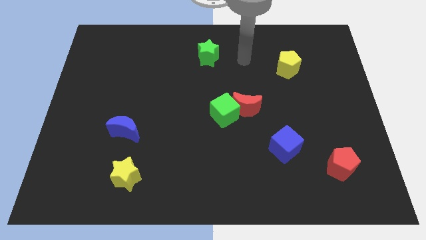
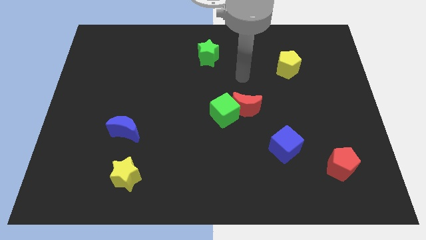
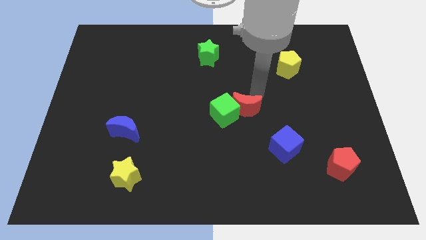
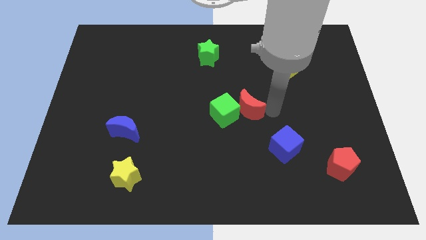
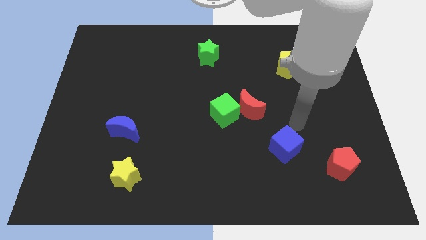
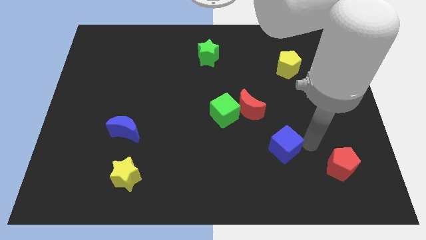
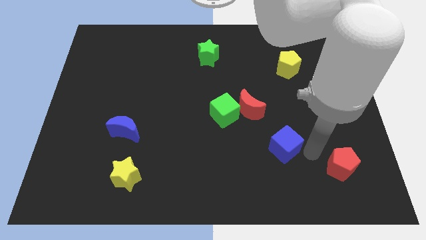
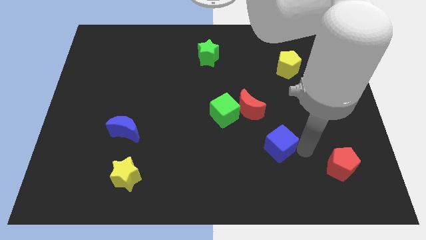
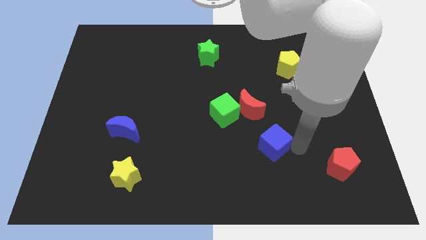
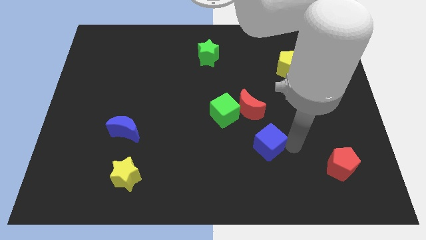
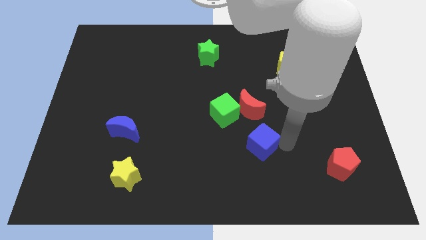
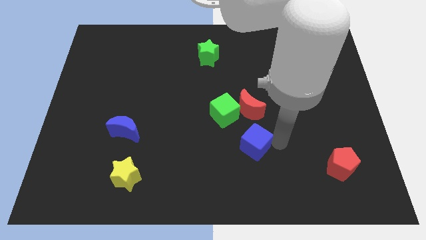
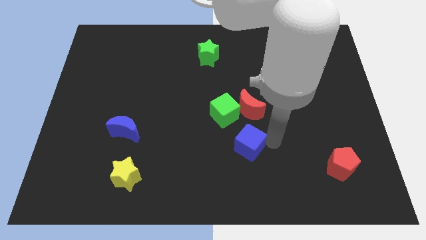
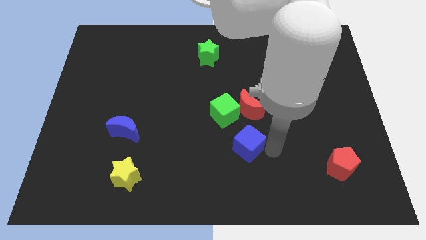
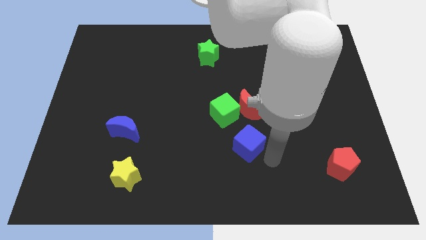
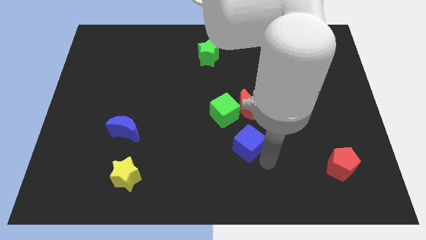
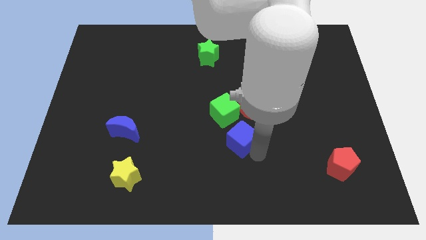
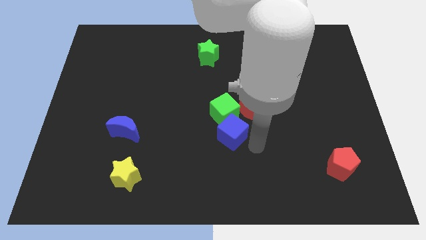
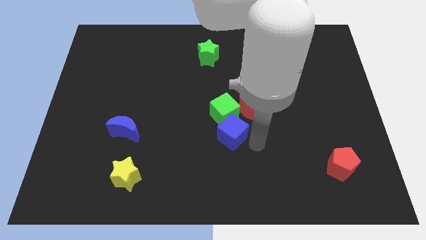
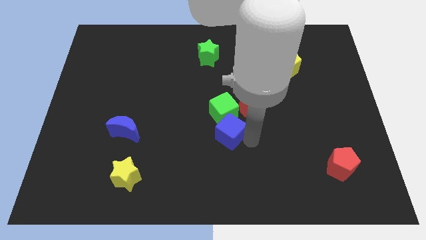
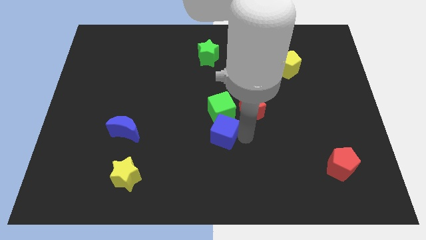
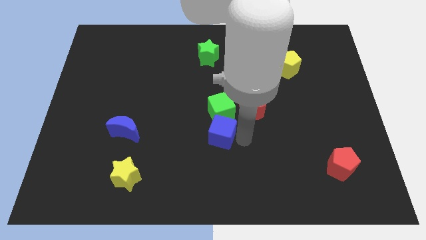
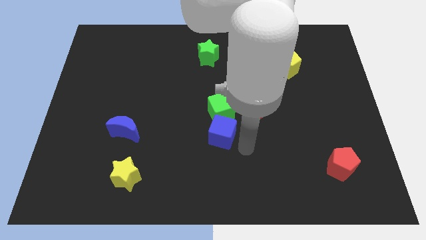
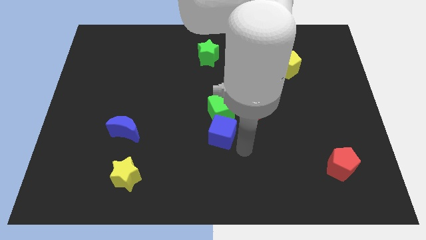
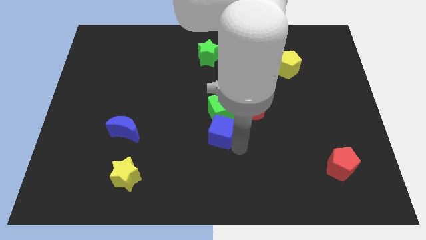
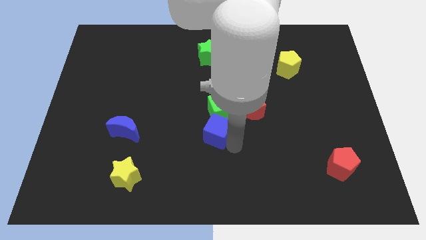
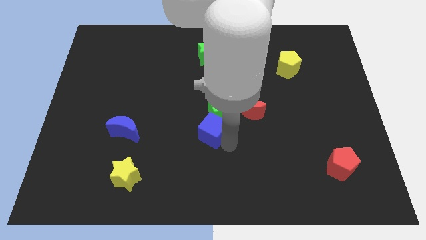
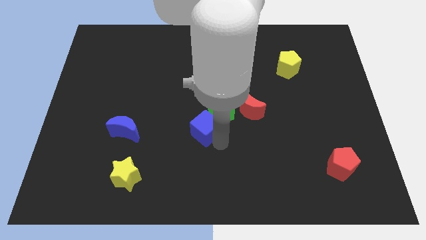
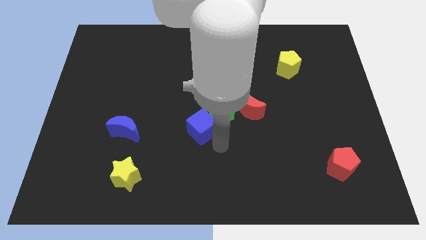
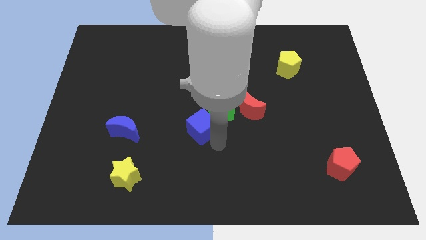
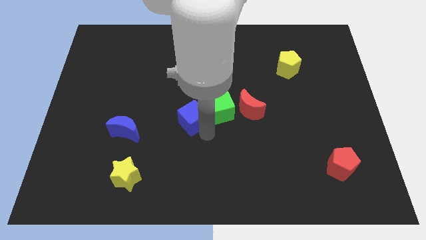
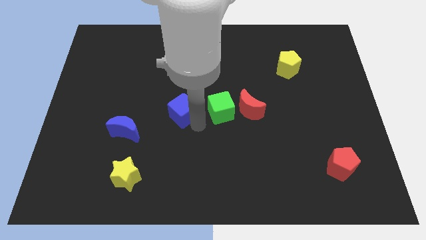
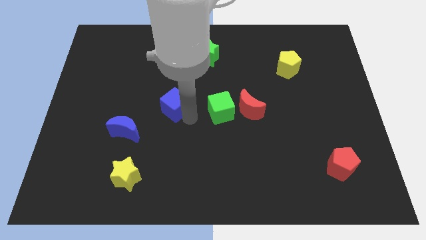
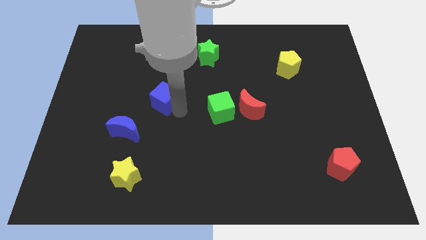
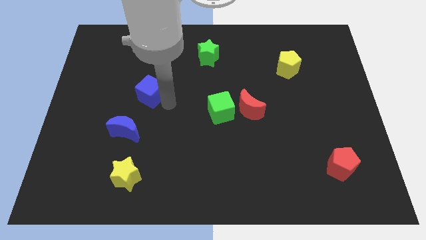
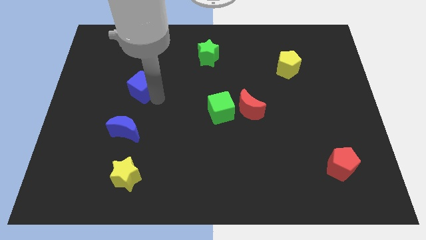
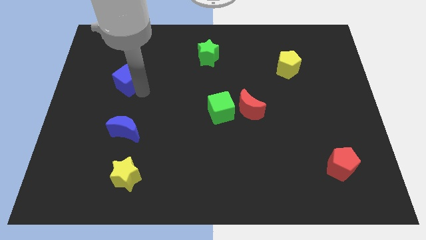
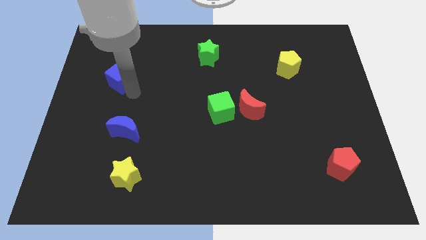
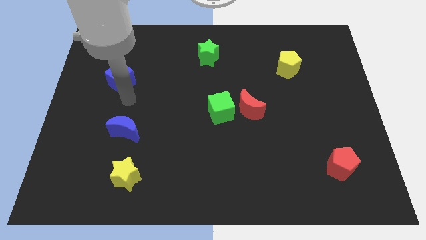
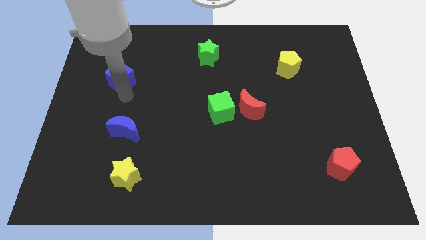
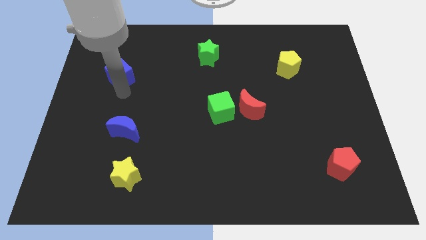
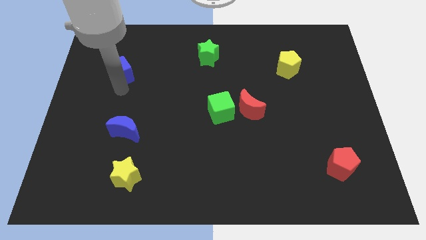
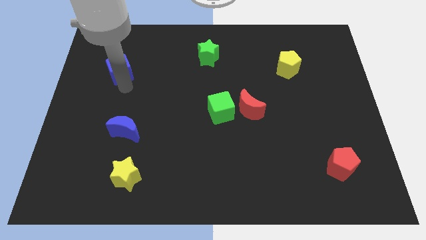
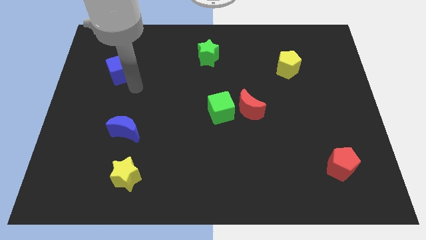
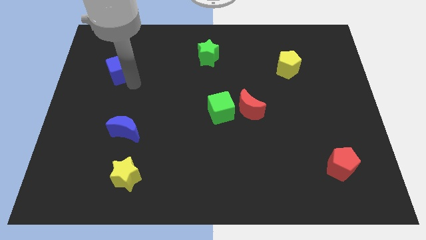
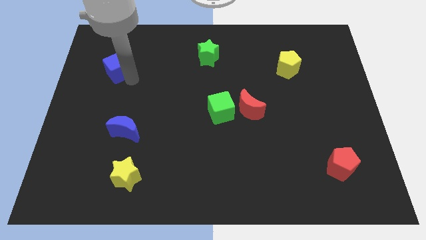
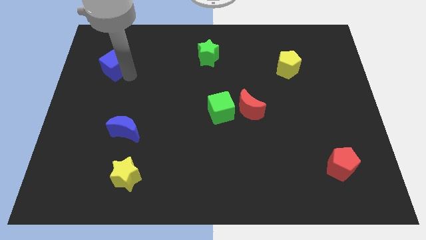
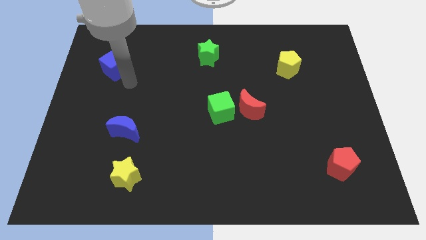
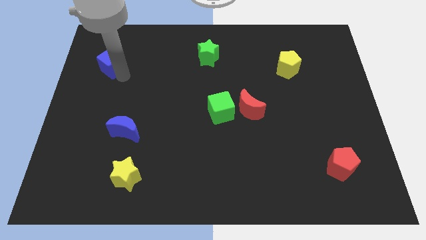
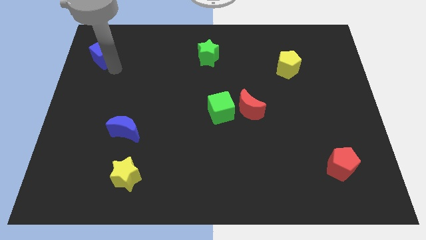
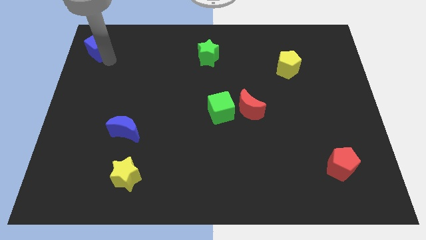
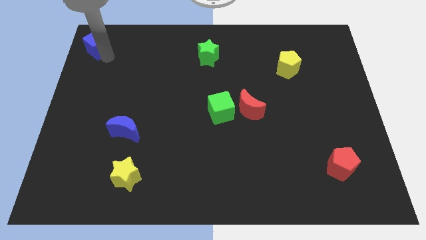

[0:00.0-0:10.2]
put the blue cube to the top left
